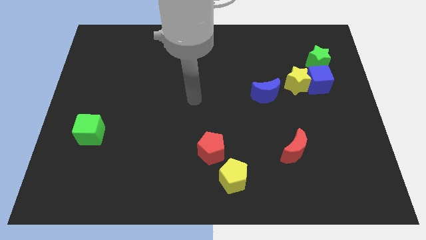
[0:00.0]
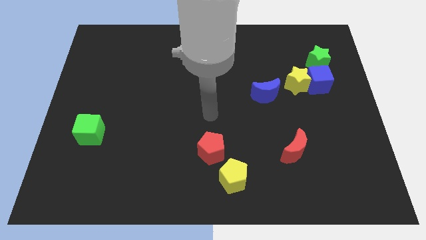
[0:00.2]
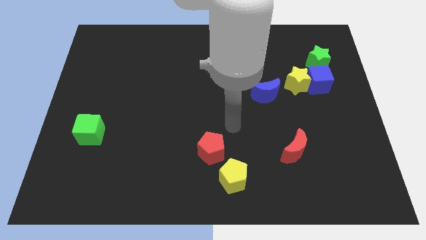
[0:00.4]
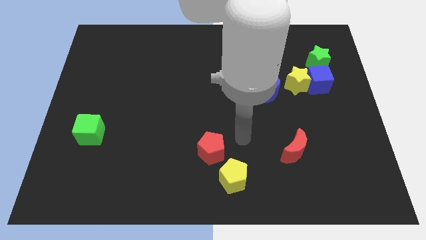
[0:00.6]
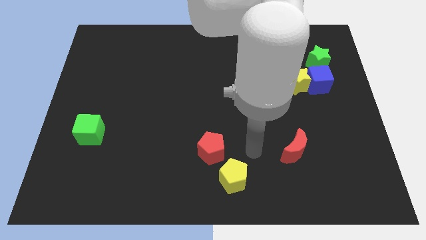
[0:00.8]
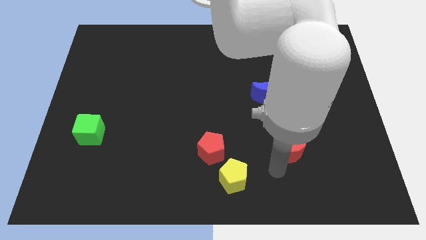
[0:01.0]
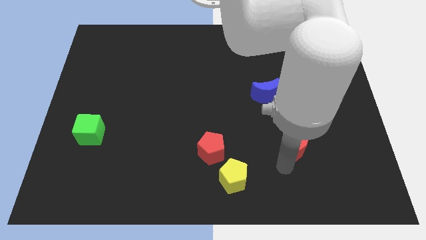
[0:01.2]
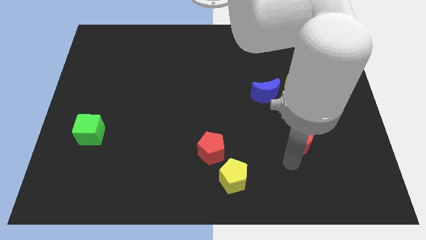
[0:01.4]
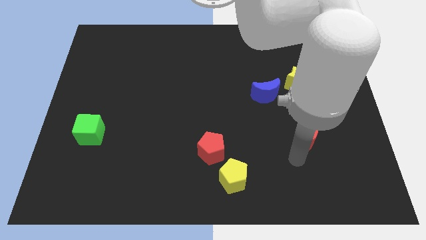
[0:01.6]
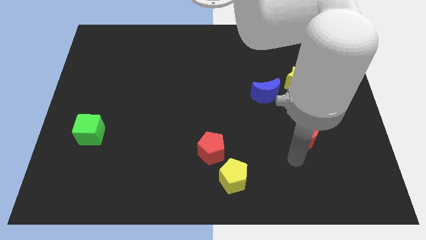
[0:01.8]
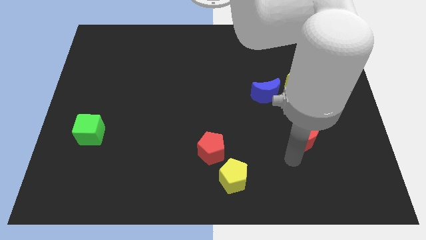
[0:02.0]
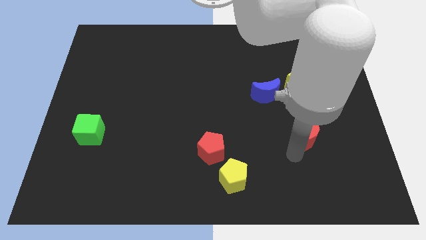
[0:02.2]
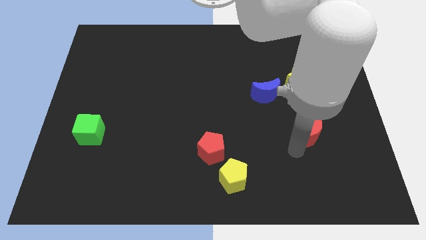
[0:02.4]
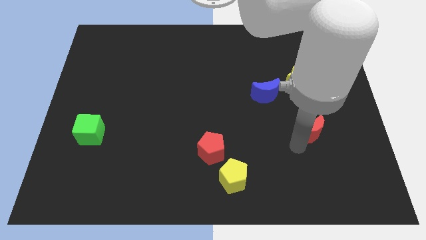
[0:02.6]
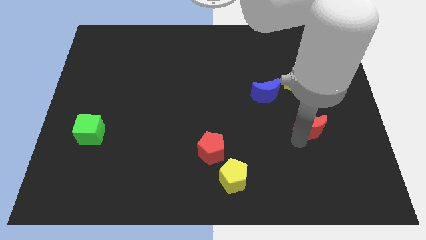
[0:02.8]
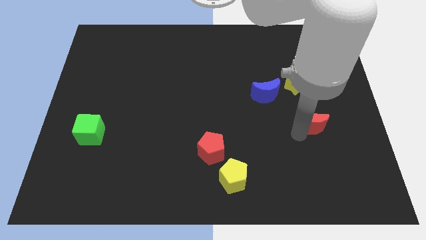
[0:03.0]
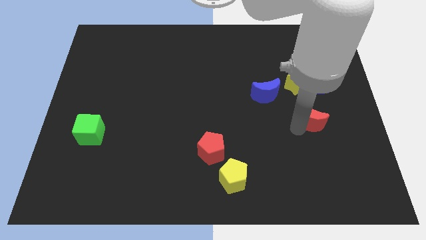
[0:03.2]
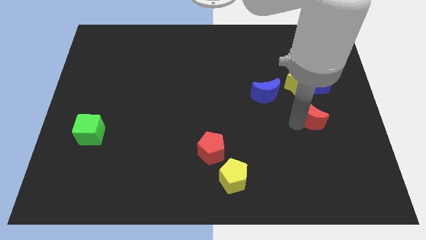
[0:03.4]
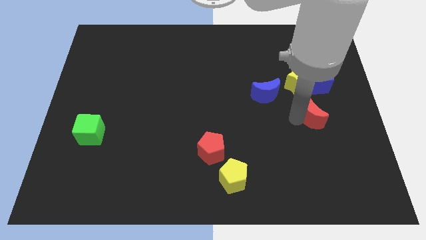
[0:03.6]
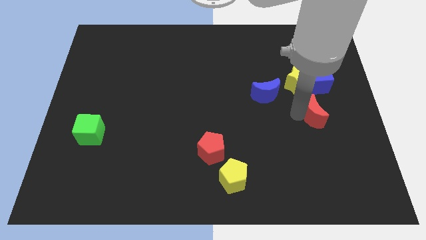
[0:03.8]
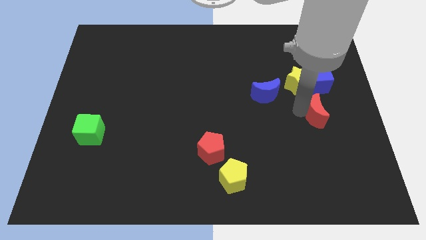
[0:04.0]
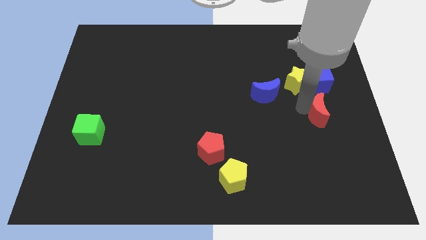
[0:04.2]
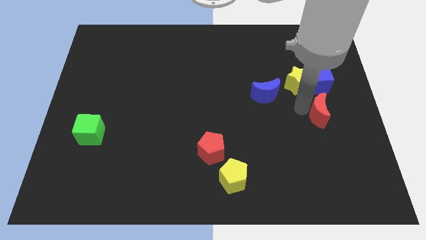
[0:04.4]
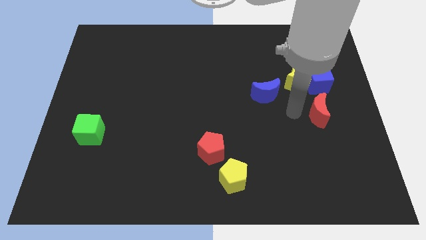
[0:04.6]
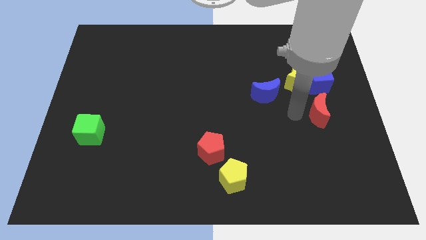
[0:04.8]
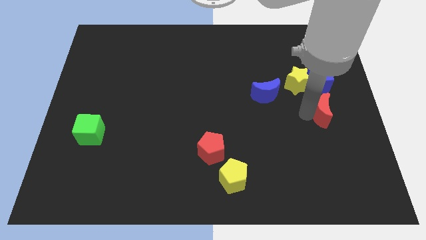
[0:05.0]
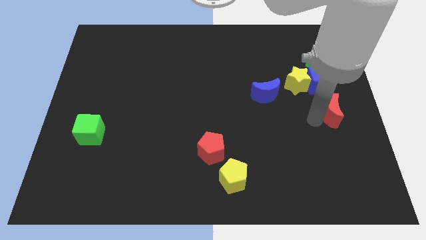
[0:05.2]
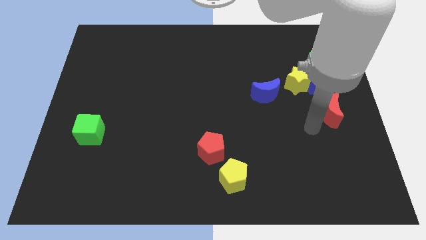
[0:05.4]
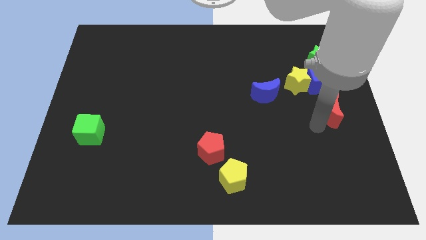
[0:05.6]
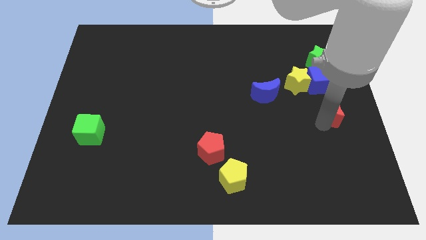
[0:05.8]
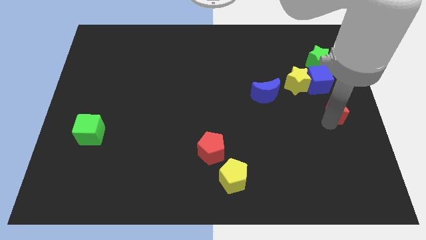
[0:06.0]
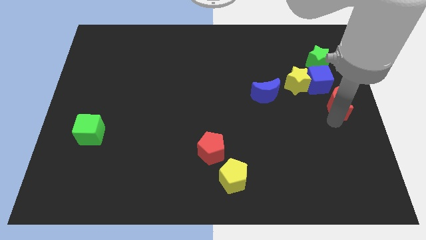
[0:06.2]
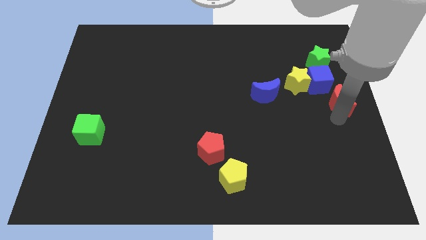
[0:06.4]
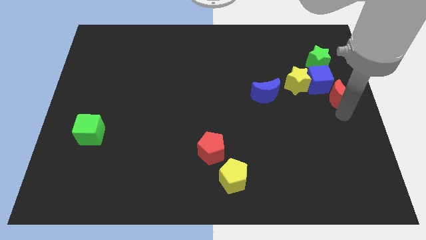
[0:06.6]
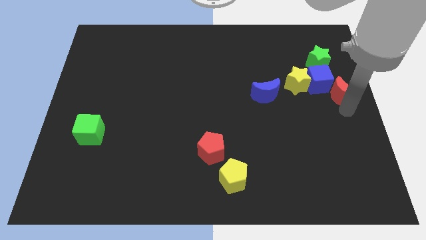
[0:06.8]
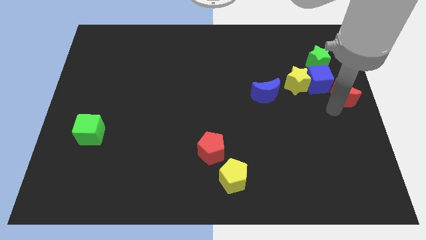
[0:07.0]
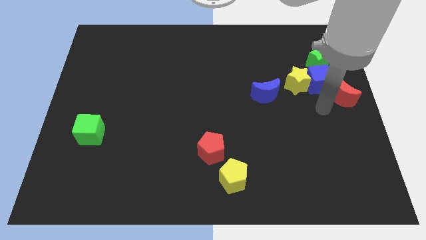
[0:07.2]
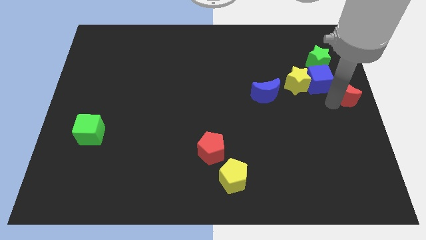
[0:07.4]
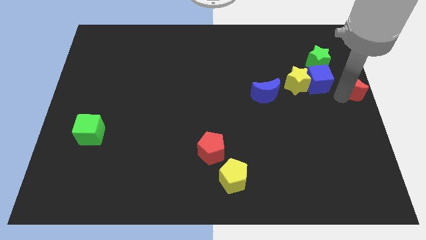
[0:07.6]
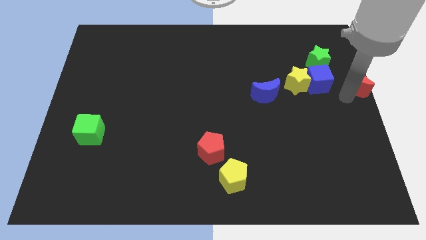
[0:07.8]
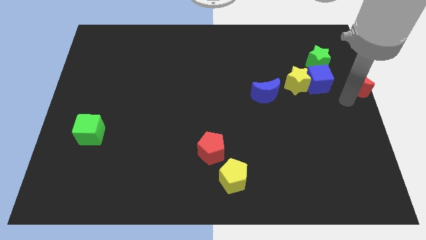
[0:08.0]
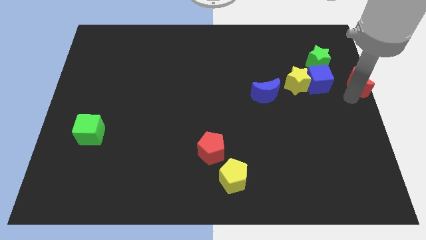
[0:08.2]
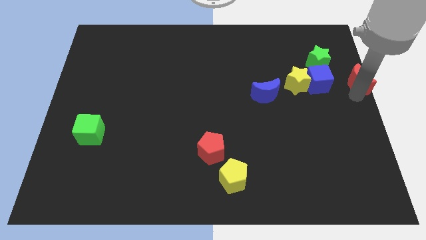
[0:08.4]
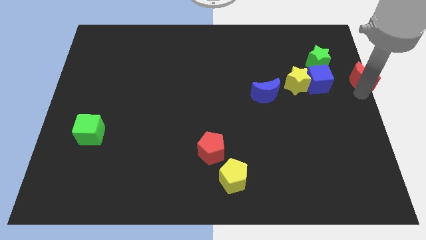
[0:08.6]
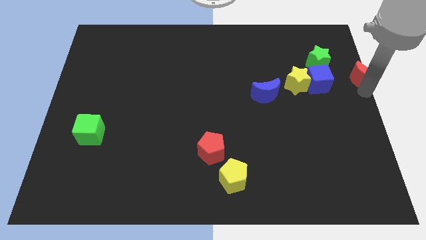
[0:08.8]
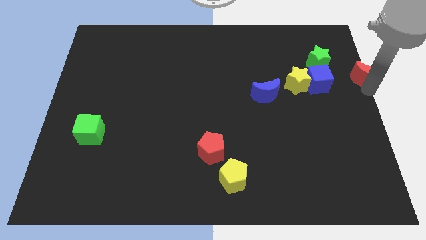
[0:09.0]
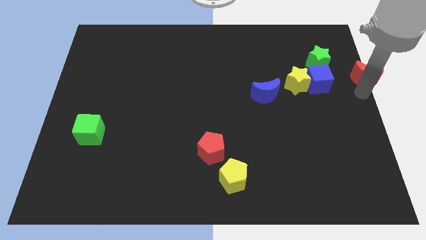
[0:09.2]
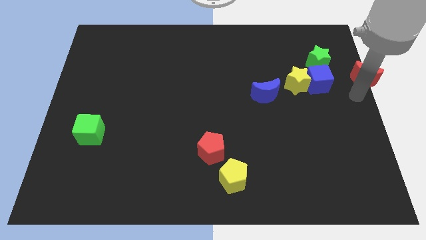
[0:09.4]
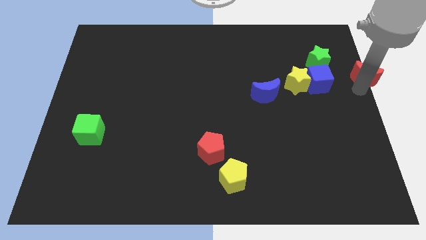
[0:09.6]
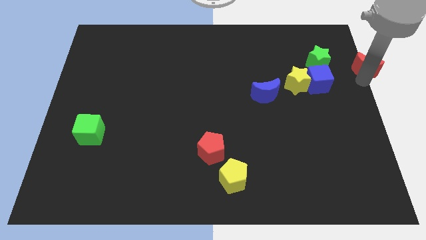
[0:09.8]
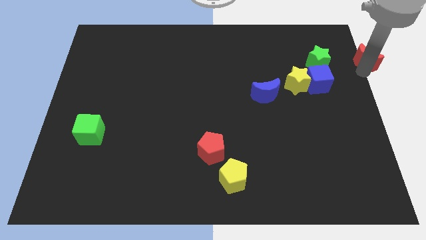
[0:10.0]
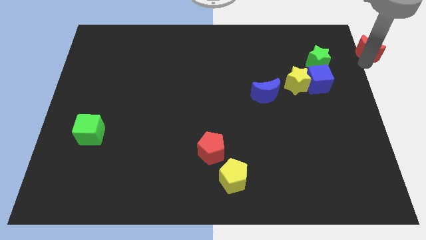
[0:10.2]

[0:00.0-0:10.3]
move the red moon to the top right of the board

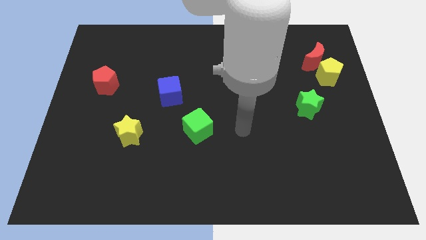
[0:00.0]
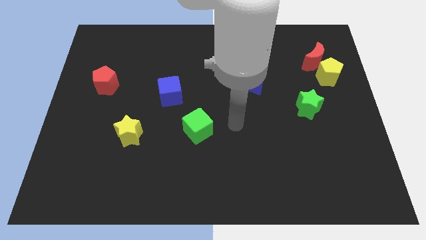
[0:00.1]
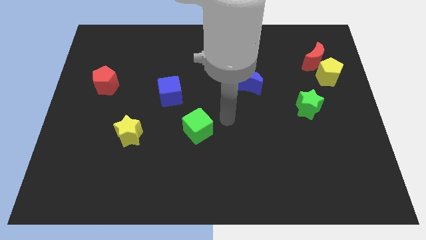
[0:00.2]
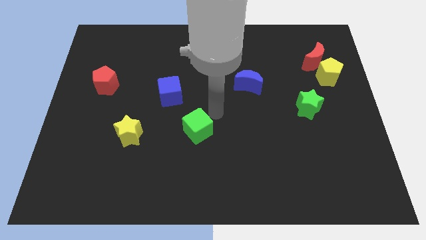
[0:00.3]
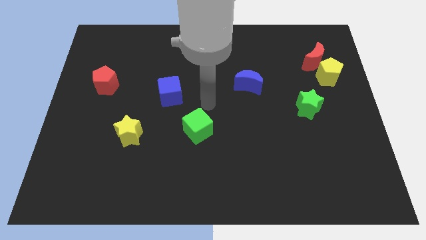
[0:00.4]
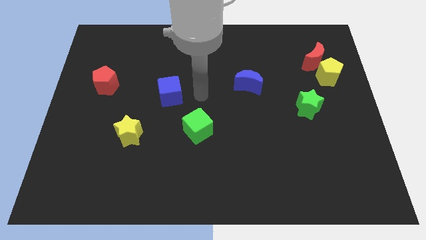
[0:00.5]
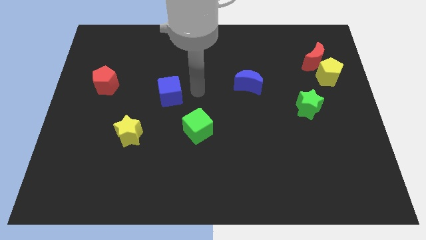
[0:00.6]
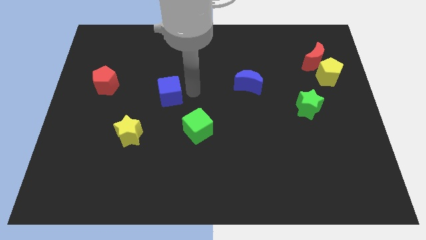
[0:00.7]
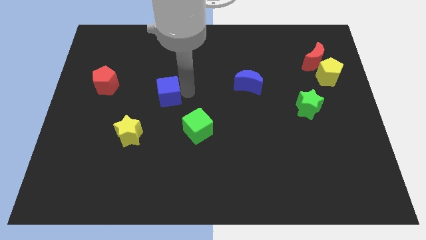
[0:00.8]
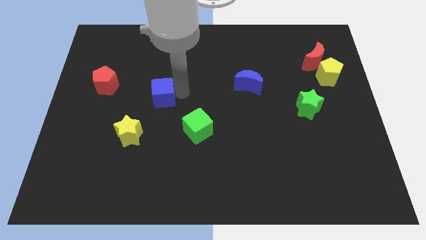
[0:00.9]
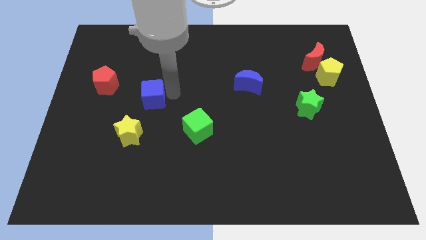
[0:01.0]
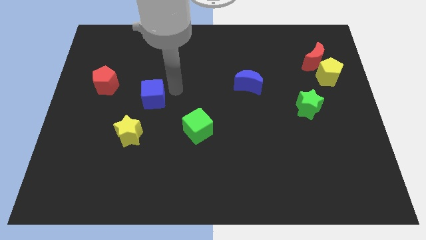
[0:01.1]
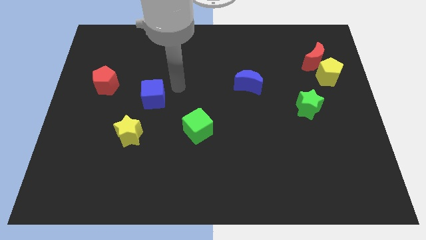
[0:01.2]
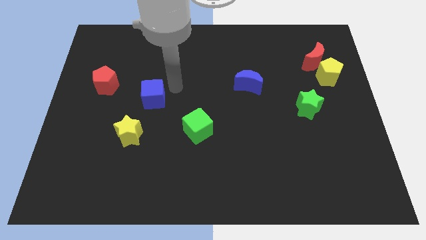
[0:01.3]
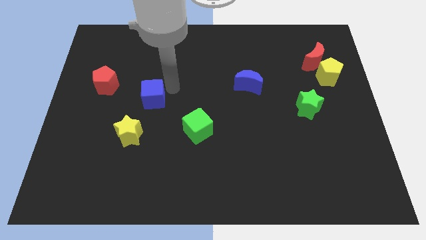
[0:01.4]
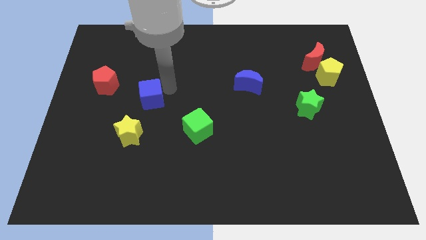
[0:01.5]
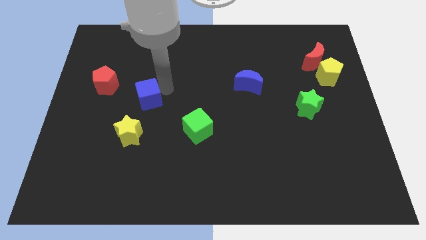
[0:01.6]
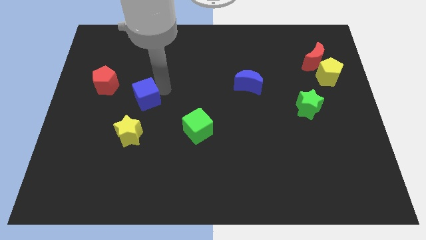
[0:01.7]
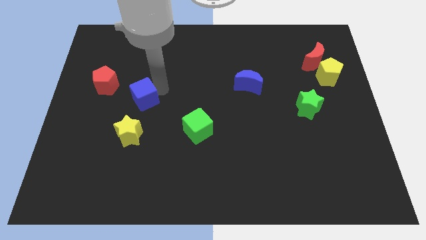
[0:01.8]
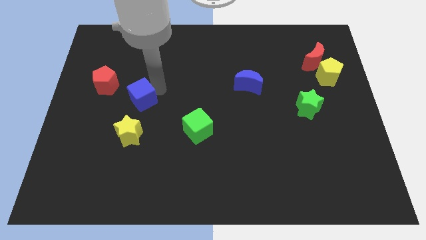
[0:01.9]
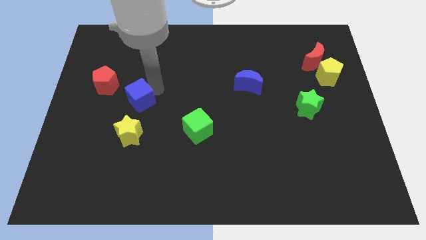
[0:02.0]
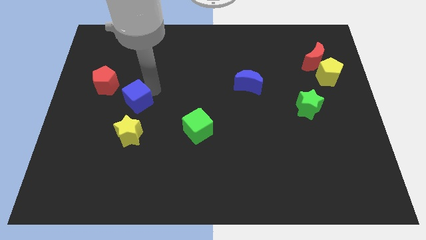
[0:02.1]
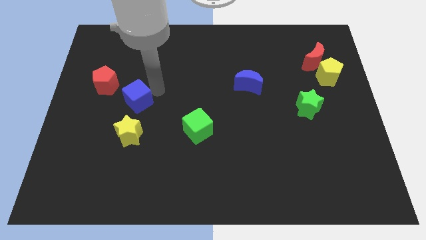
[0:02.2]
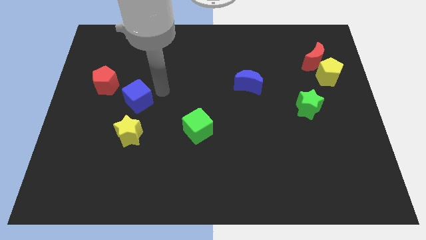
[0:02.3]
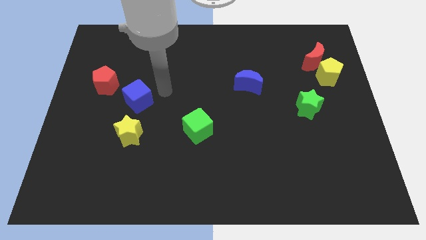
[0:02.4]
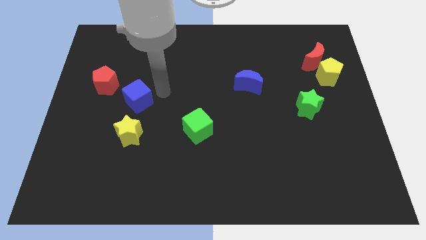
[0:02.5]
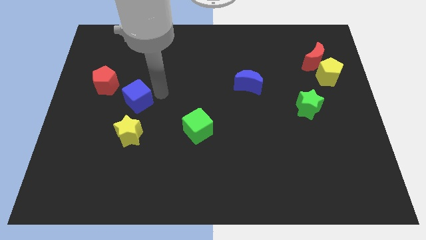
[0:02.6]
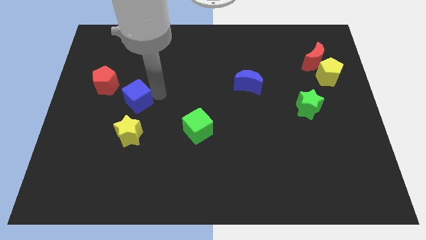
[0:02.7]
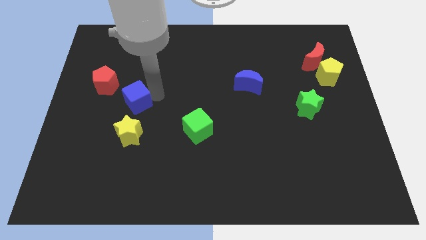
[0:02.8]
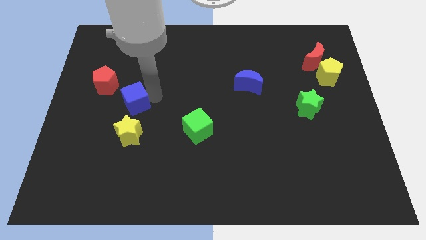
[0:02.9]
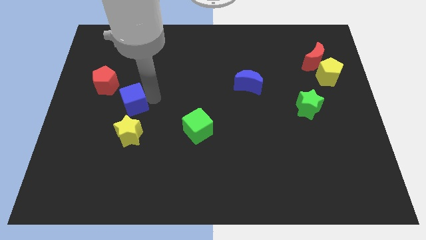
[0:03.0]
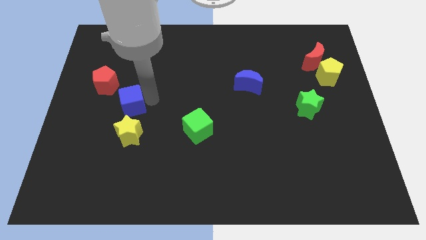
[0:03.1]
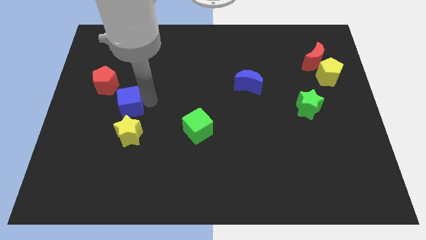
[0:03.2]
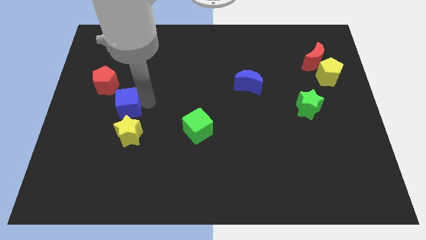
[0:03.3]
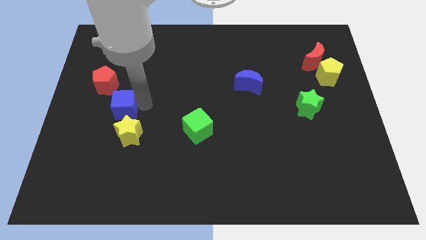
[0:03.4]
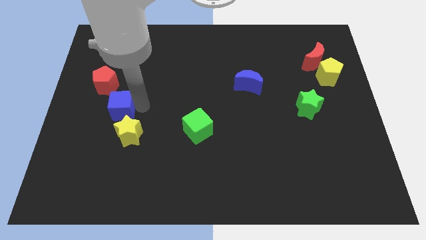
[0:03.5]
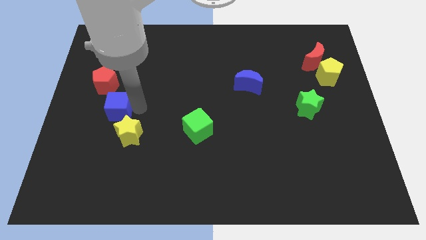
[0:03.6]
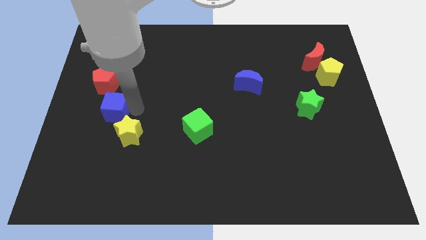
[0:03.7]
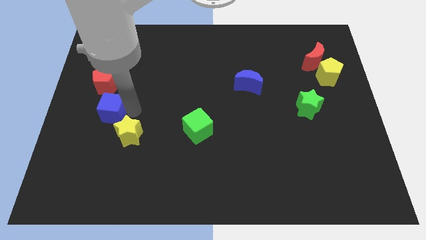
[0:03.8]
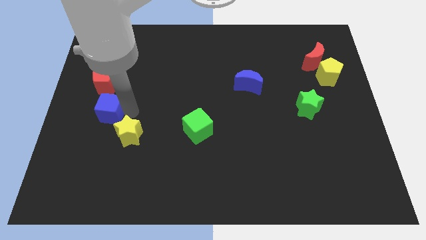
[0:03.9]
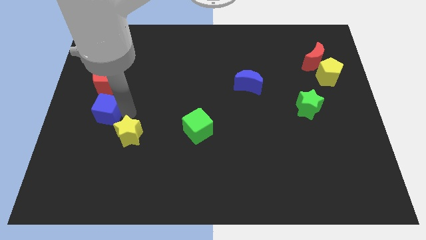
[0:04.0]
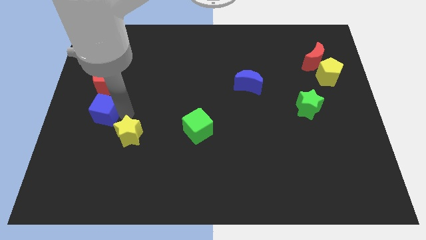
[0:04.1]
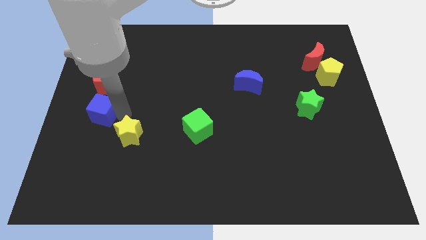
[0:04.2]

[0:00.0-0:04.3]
put the blue cube to the center left
